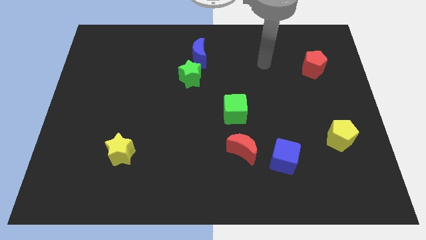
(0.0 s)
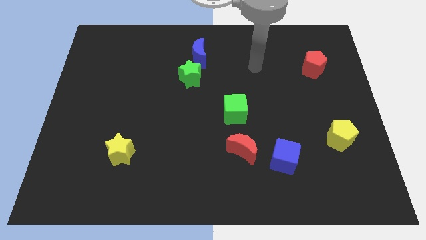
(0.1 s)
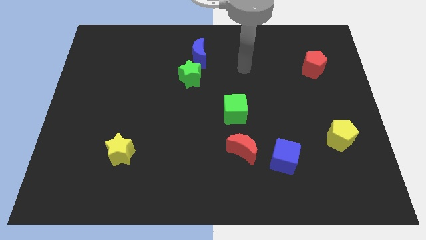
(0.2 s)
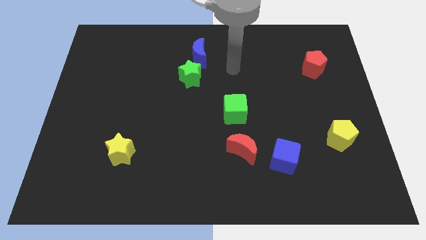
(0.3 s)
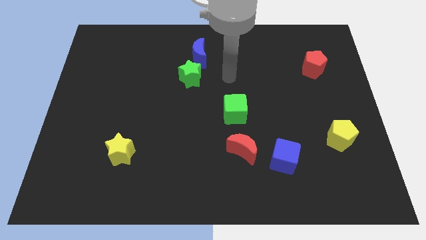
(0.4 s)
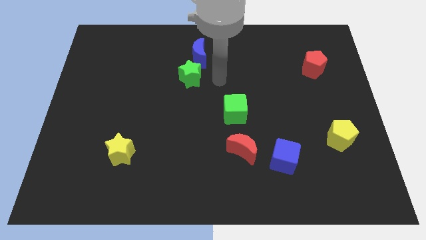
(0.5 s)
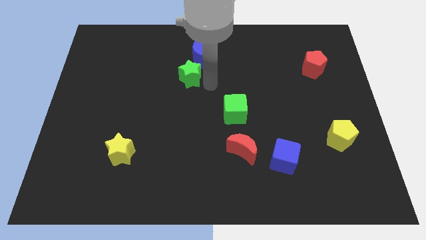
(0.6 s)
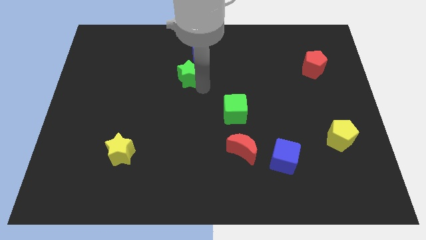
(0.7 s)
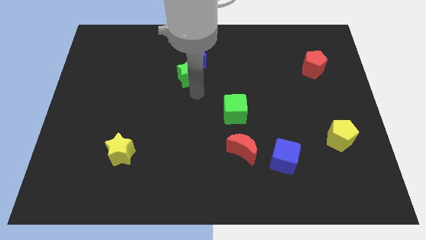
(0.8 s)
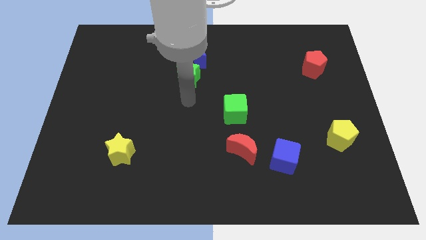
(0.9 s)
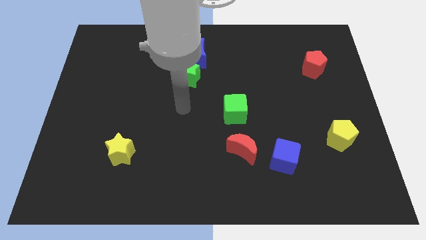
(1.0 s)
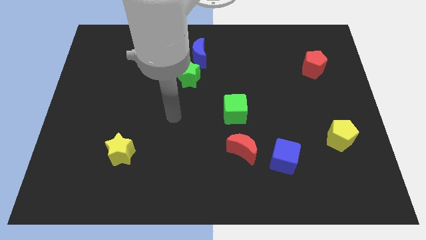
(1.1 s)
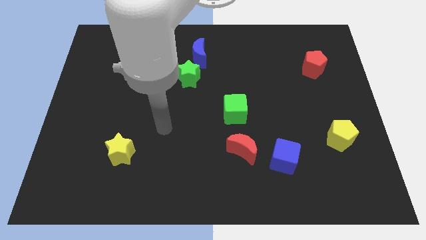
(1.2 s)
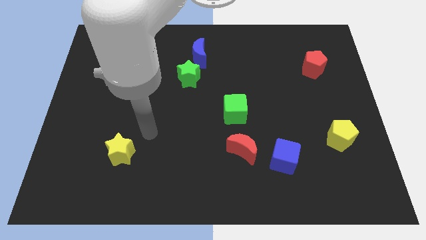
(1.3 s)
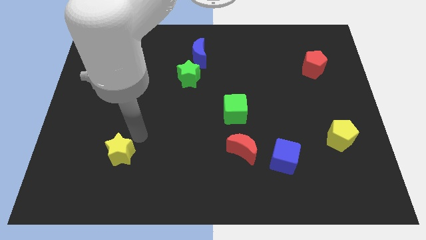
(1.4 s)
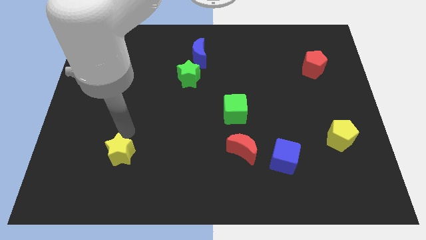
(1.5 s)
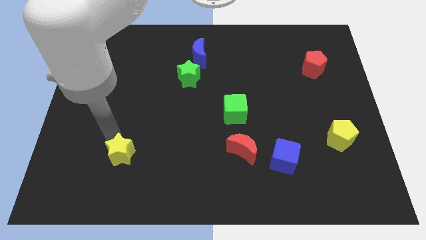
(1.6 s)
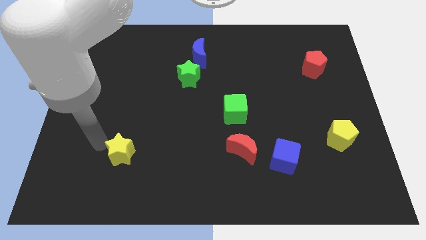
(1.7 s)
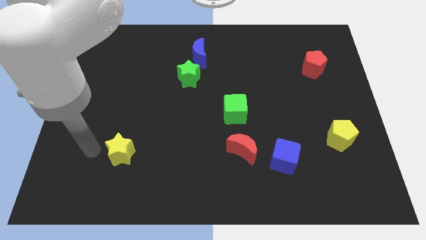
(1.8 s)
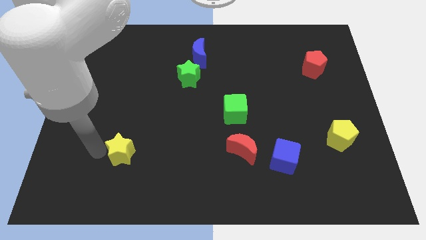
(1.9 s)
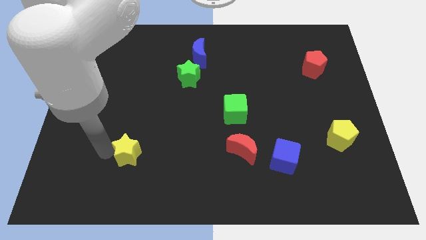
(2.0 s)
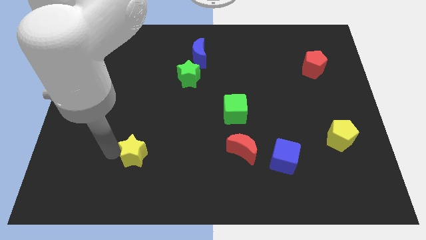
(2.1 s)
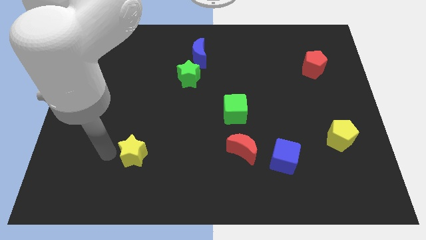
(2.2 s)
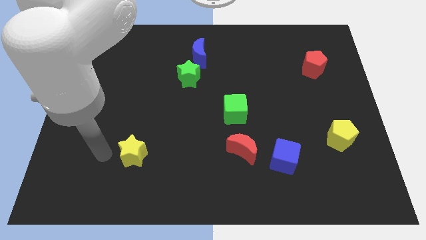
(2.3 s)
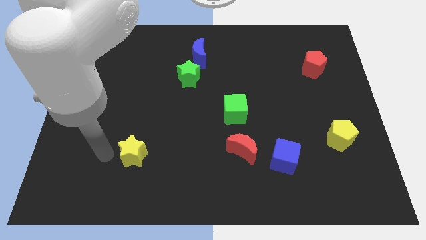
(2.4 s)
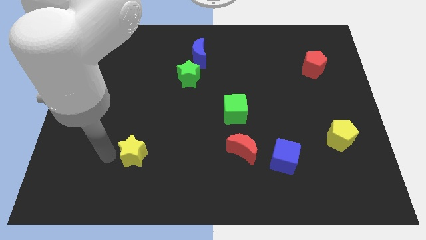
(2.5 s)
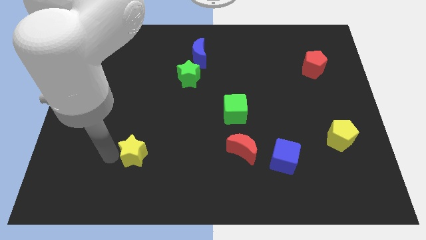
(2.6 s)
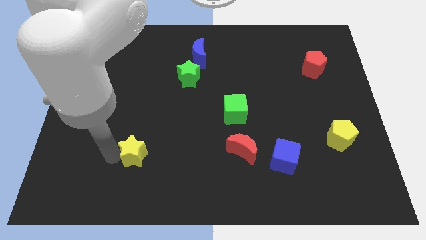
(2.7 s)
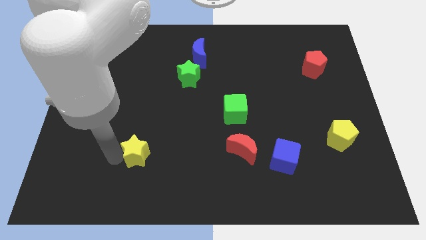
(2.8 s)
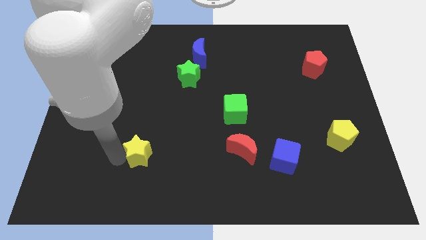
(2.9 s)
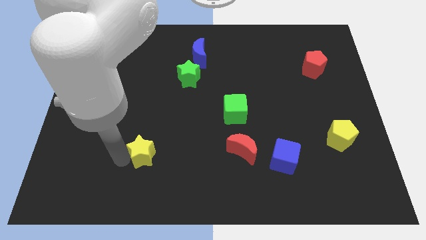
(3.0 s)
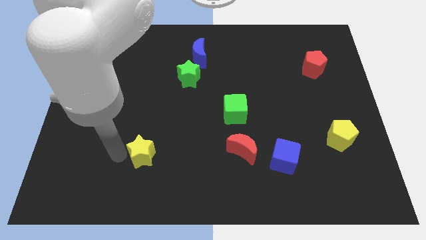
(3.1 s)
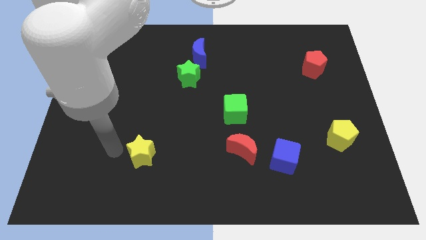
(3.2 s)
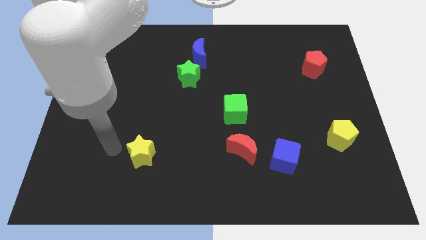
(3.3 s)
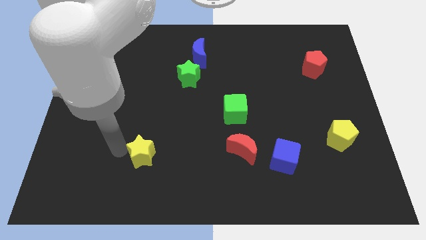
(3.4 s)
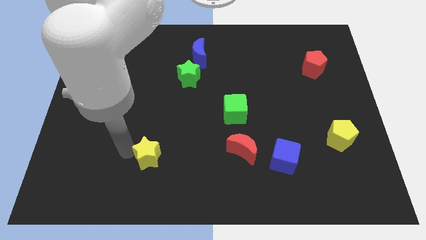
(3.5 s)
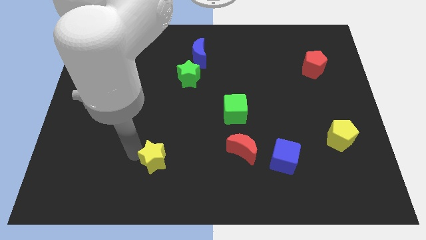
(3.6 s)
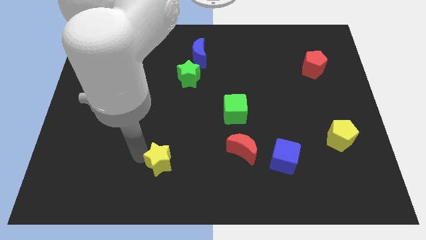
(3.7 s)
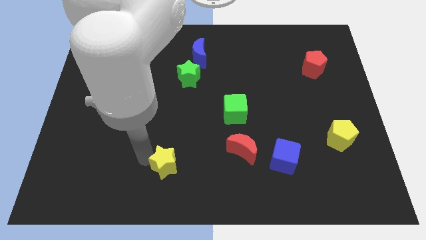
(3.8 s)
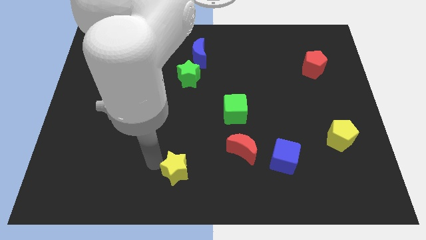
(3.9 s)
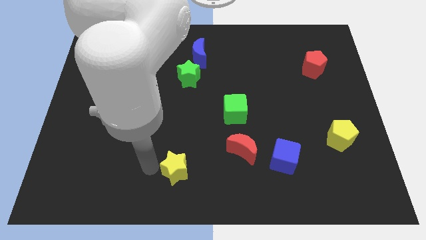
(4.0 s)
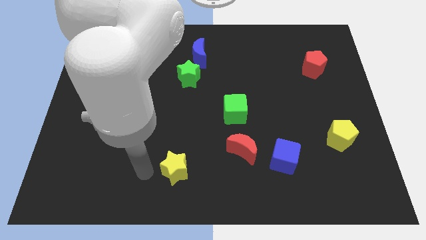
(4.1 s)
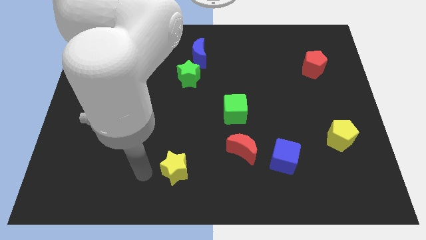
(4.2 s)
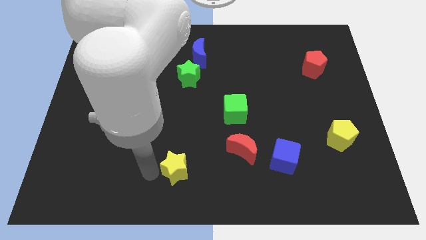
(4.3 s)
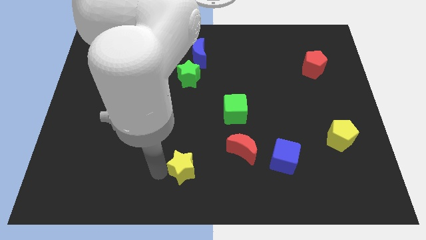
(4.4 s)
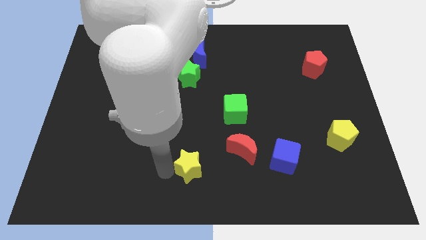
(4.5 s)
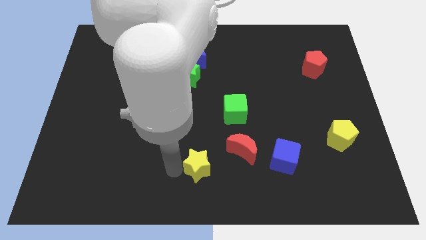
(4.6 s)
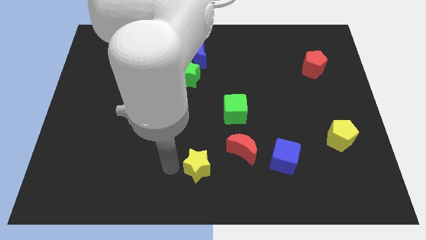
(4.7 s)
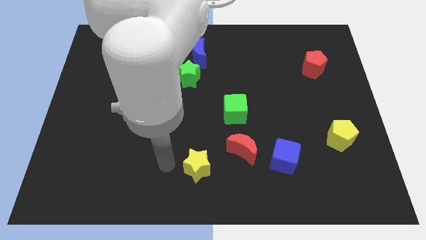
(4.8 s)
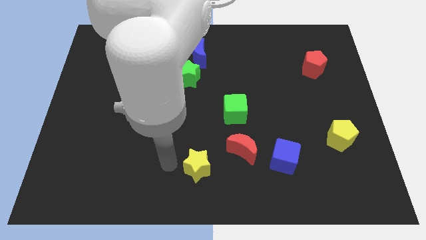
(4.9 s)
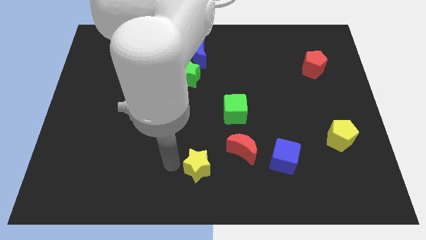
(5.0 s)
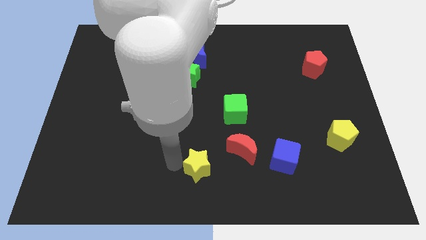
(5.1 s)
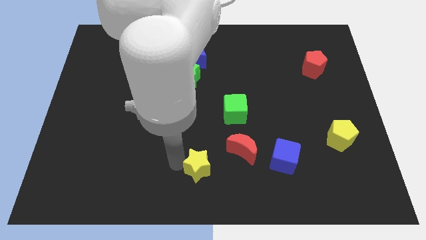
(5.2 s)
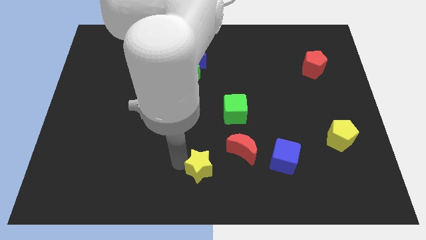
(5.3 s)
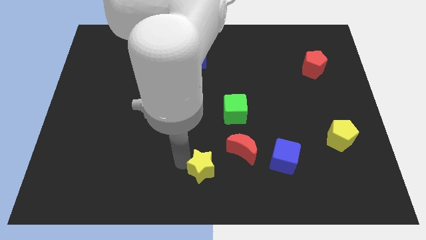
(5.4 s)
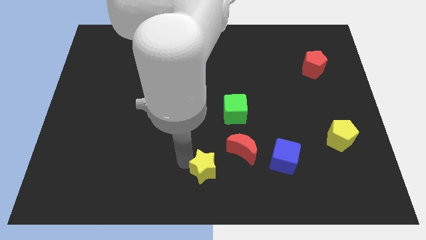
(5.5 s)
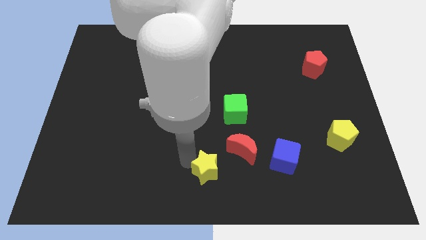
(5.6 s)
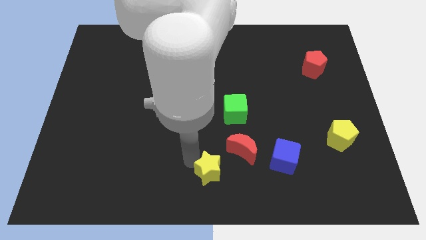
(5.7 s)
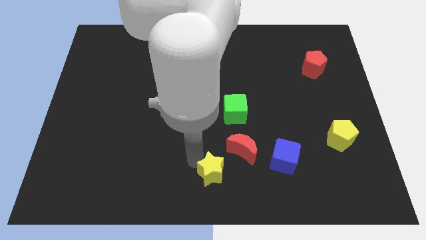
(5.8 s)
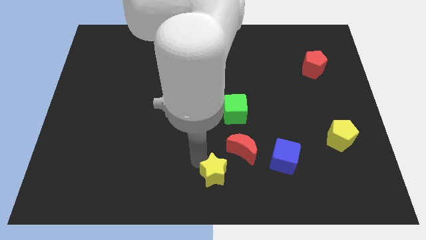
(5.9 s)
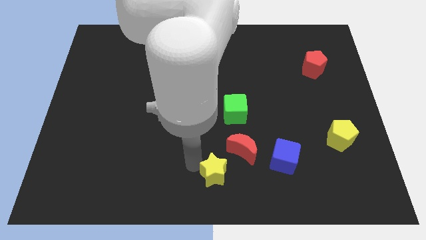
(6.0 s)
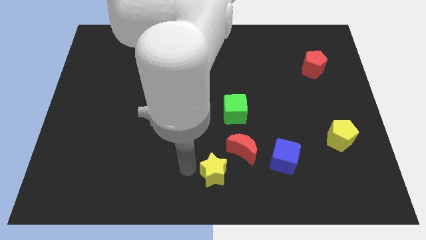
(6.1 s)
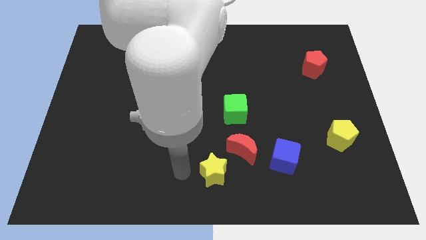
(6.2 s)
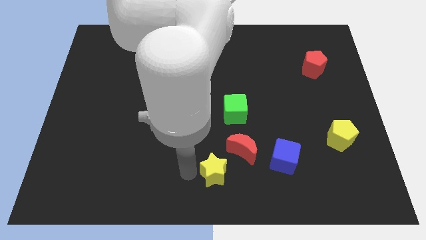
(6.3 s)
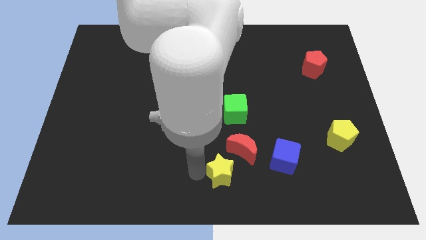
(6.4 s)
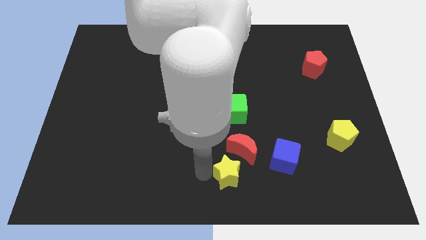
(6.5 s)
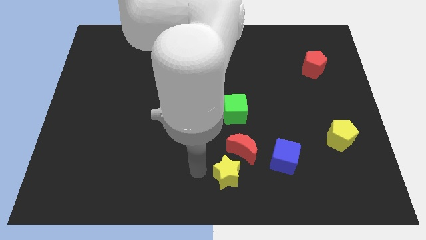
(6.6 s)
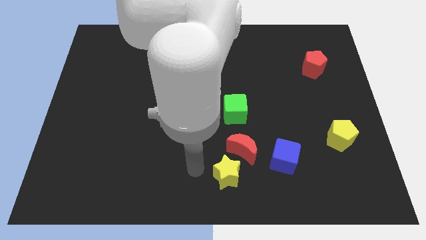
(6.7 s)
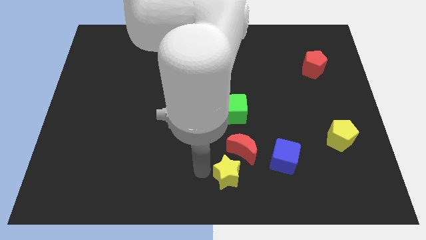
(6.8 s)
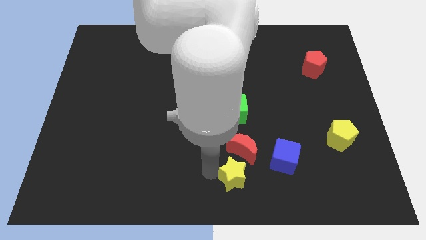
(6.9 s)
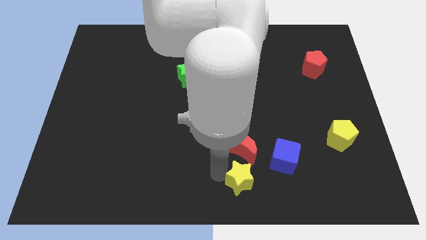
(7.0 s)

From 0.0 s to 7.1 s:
push the yellow star diagonally down and to the left of the blue cube

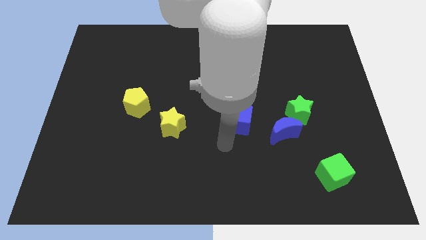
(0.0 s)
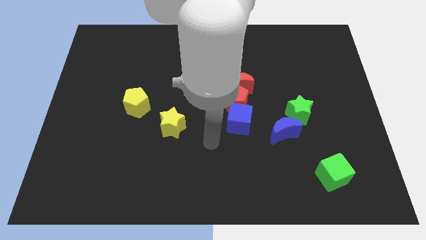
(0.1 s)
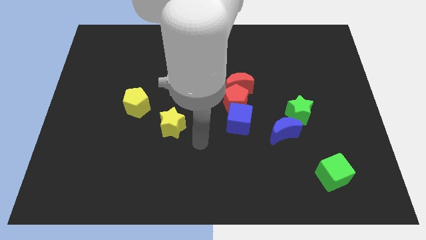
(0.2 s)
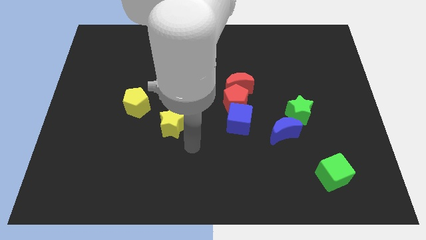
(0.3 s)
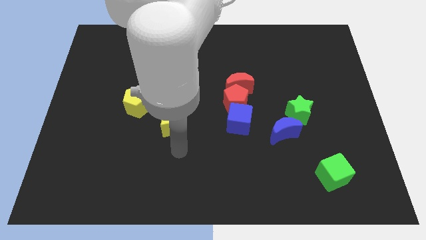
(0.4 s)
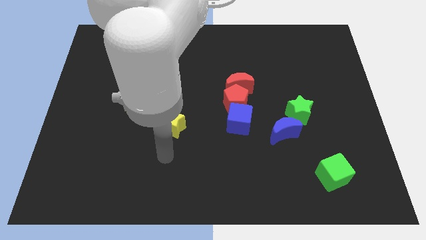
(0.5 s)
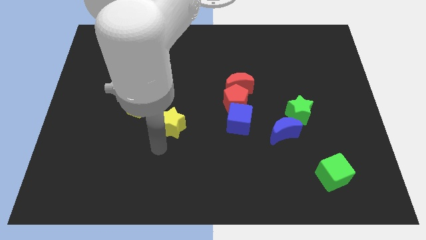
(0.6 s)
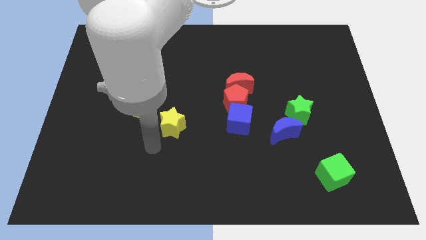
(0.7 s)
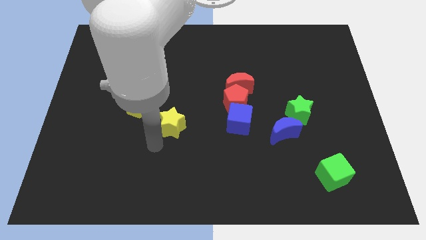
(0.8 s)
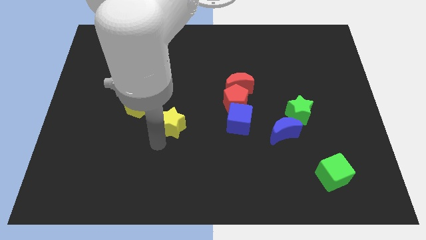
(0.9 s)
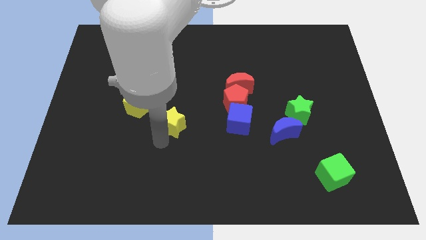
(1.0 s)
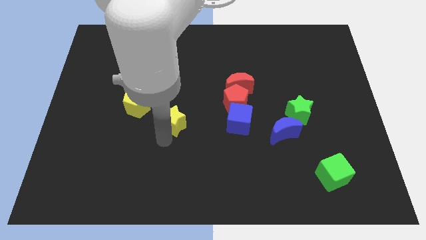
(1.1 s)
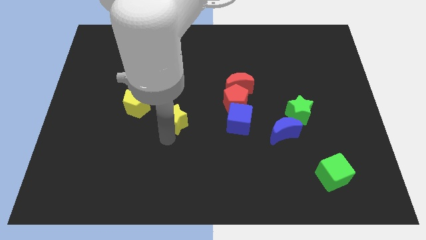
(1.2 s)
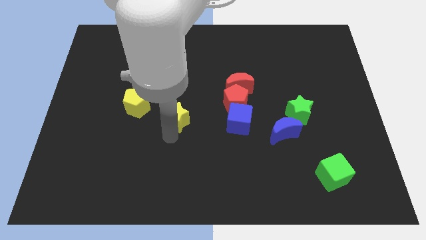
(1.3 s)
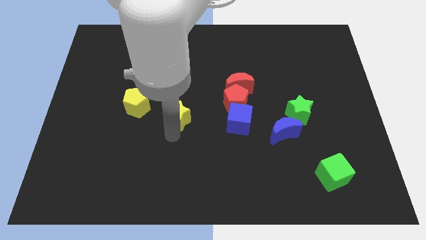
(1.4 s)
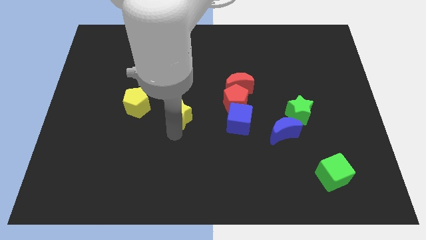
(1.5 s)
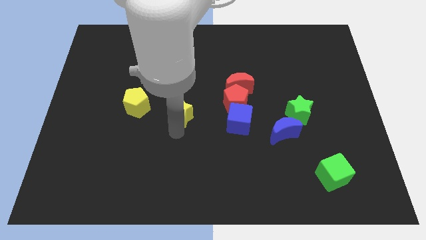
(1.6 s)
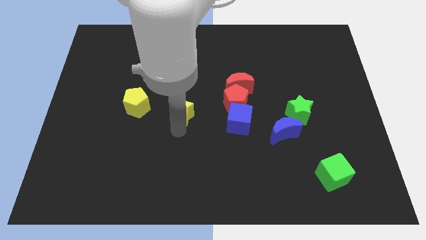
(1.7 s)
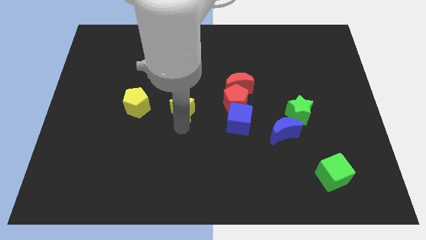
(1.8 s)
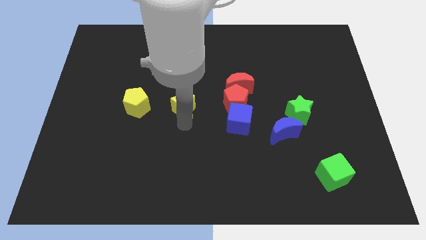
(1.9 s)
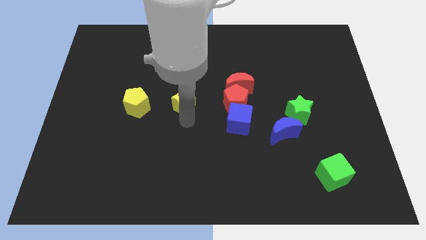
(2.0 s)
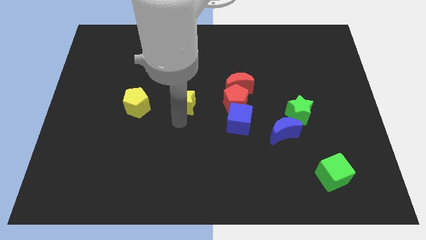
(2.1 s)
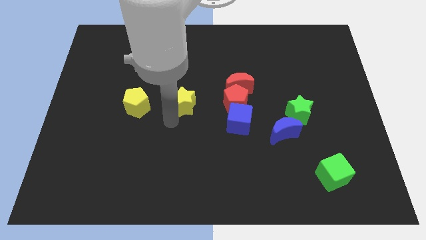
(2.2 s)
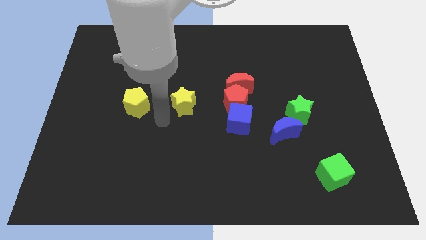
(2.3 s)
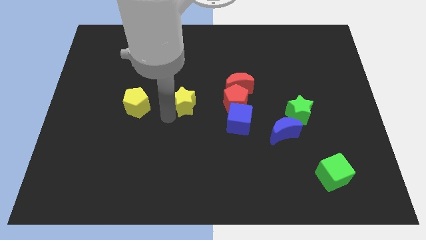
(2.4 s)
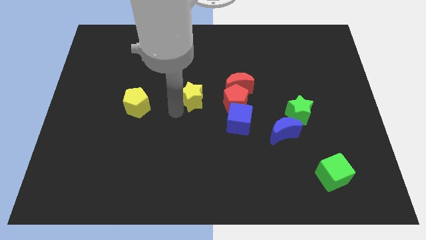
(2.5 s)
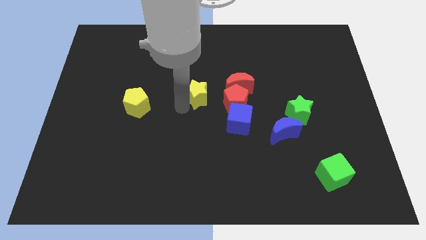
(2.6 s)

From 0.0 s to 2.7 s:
move the yellow star to the top left side of the red pentagon
